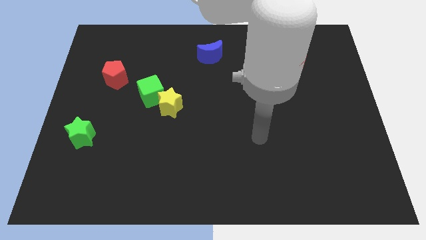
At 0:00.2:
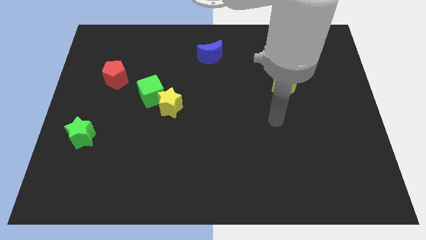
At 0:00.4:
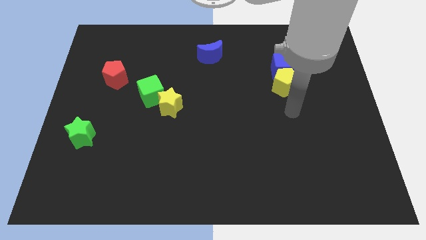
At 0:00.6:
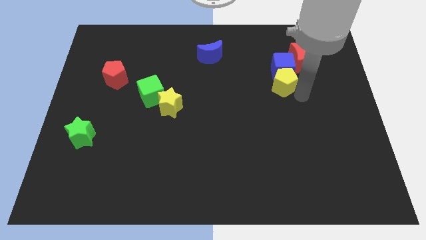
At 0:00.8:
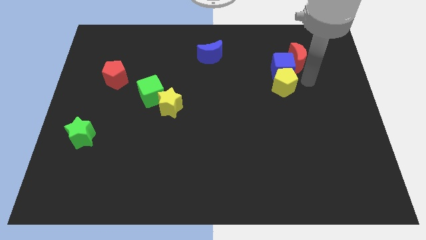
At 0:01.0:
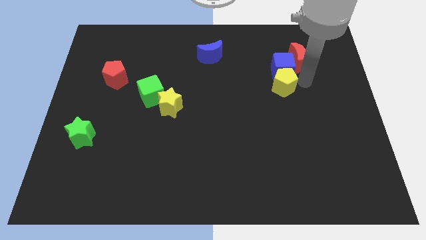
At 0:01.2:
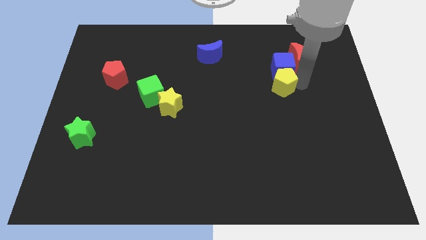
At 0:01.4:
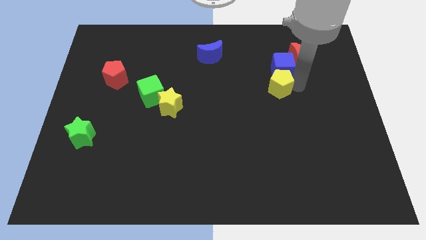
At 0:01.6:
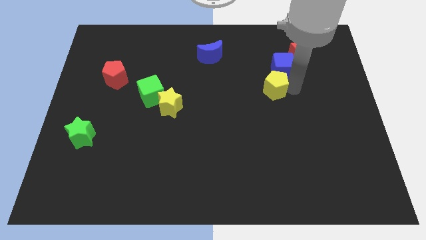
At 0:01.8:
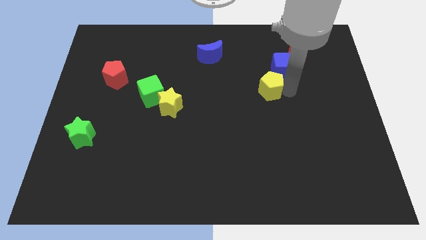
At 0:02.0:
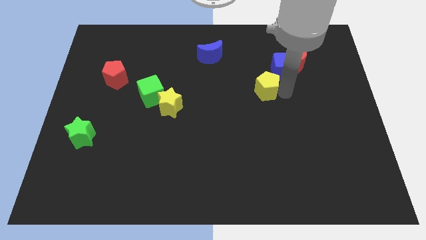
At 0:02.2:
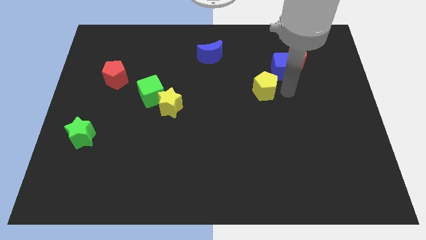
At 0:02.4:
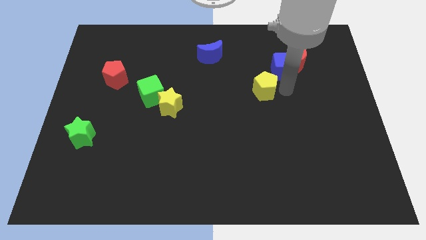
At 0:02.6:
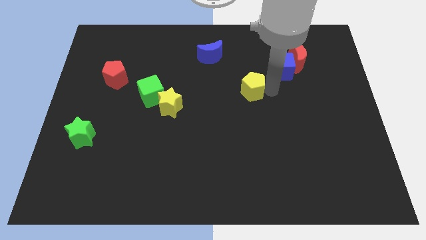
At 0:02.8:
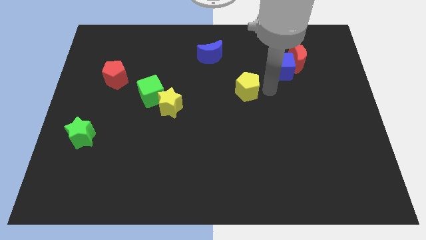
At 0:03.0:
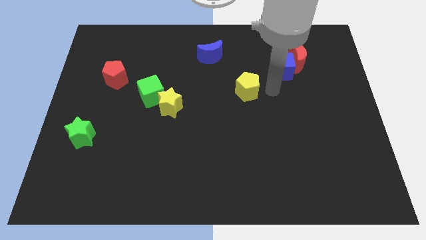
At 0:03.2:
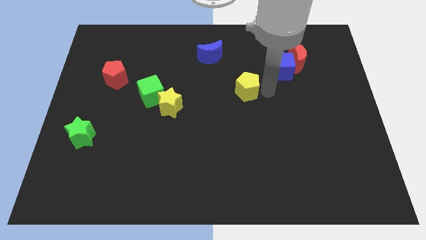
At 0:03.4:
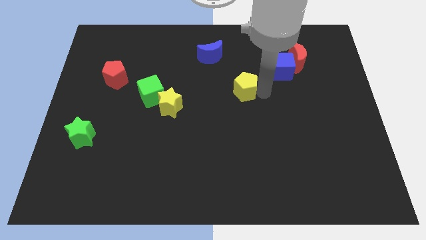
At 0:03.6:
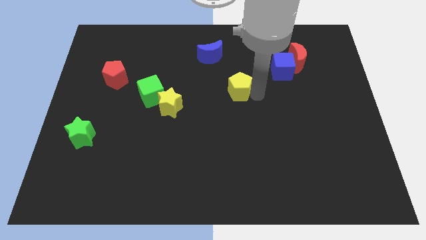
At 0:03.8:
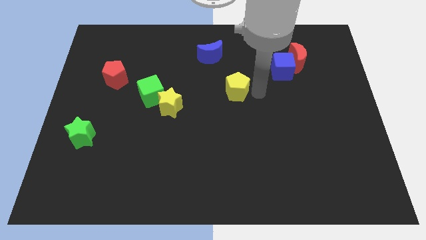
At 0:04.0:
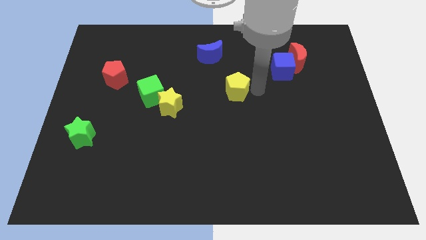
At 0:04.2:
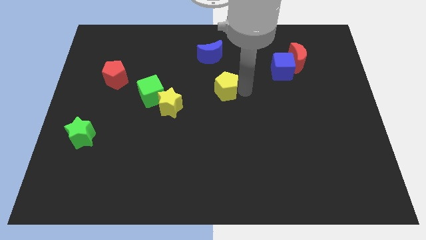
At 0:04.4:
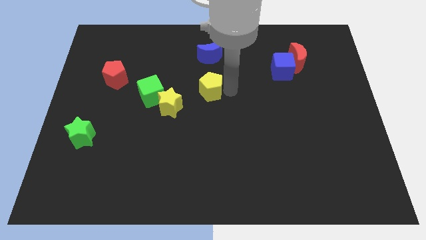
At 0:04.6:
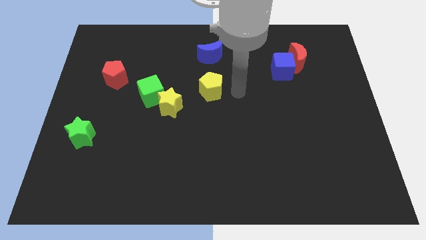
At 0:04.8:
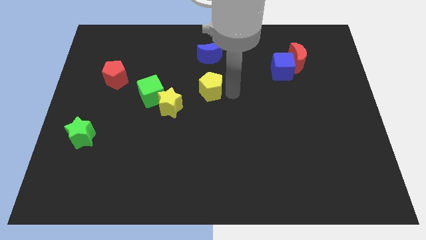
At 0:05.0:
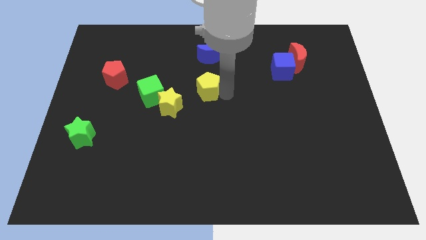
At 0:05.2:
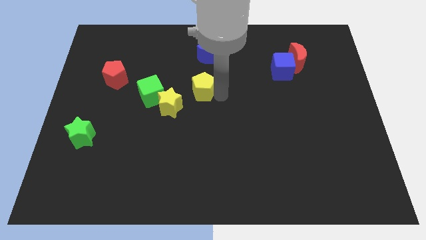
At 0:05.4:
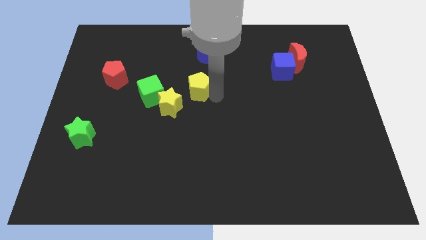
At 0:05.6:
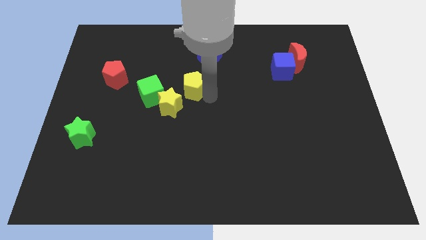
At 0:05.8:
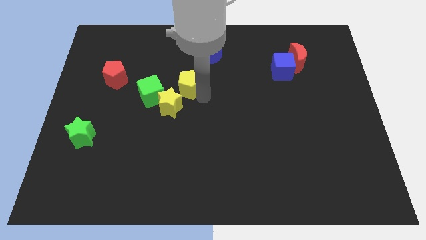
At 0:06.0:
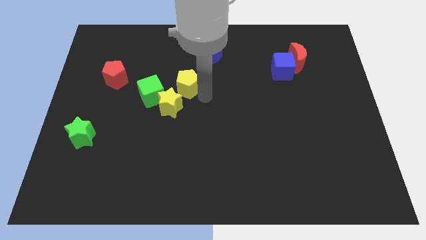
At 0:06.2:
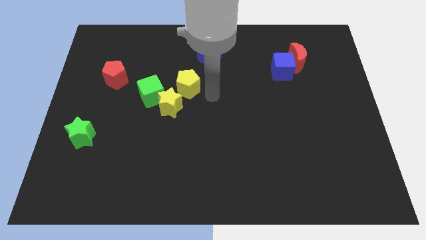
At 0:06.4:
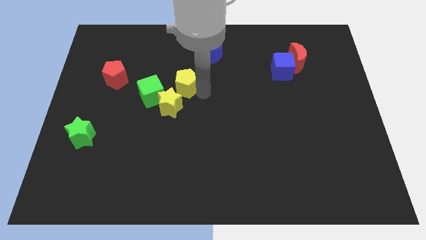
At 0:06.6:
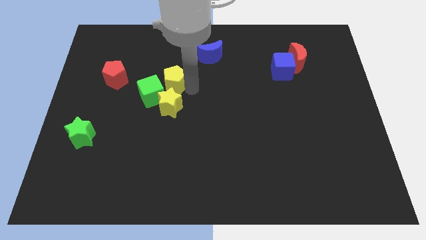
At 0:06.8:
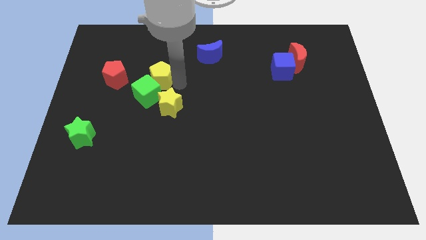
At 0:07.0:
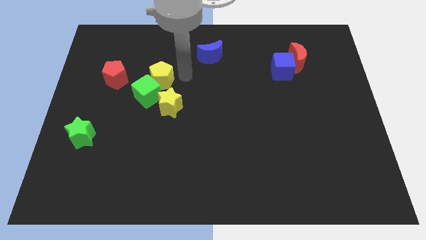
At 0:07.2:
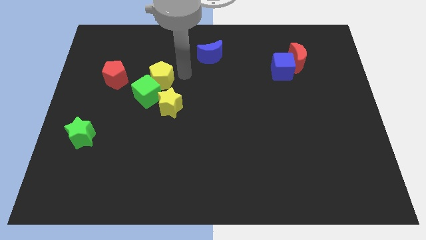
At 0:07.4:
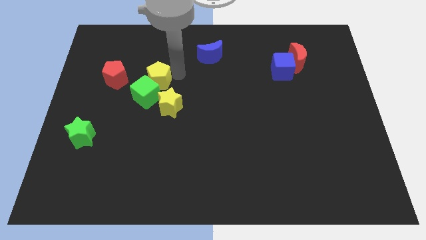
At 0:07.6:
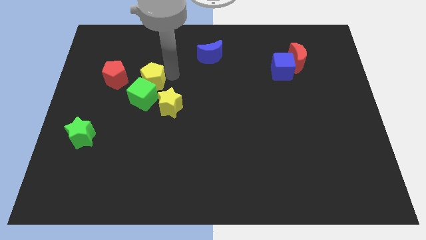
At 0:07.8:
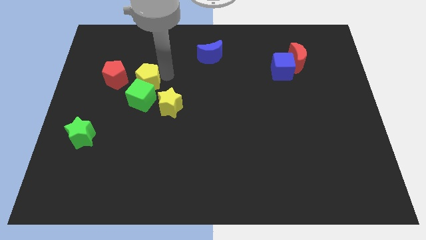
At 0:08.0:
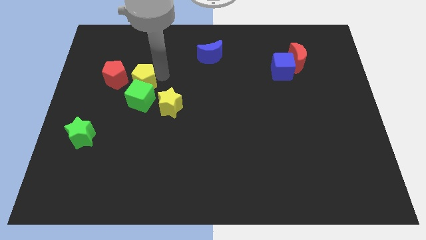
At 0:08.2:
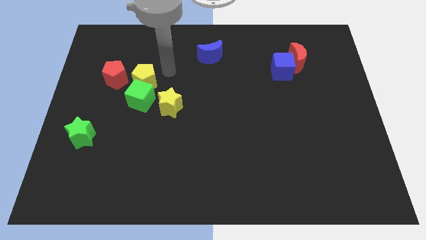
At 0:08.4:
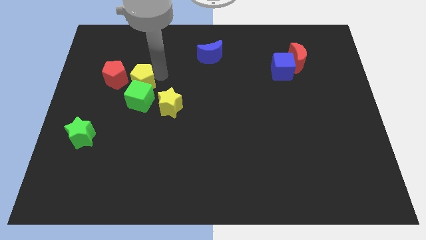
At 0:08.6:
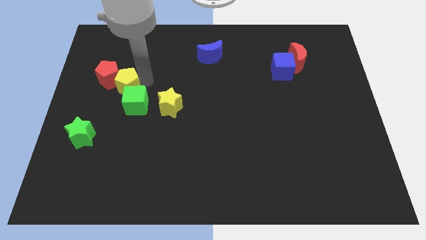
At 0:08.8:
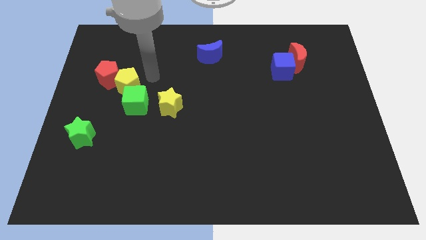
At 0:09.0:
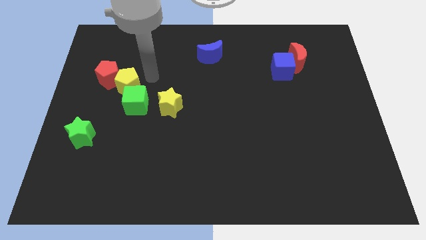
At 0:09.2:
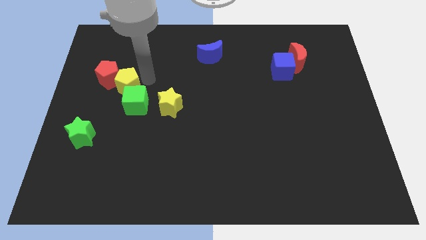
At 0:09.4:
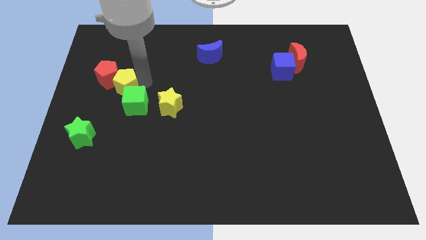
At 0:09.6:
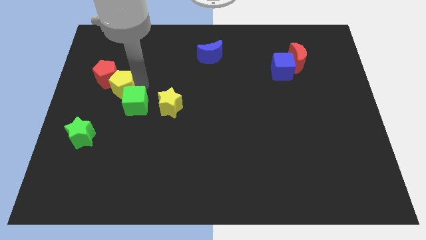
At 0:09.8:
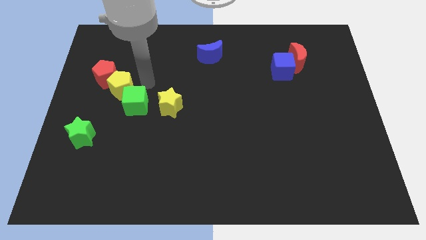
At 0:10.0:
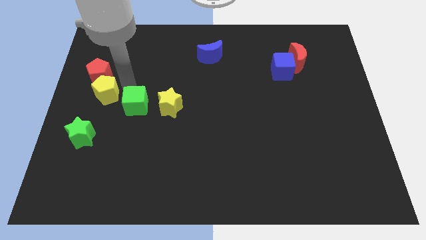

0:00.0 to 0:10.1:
move the yellow pentagon to the left side

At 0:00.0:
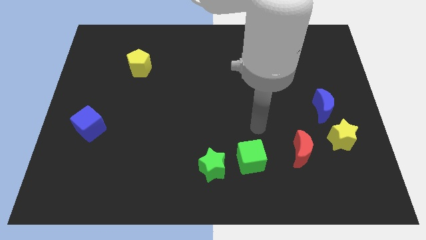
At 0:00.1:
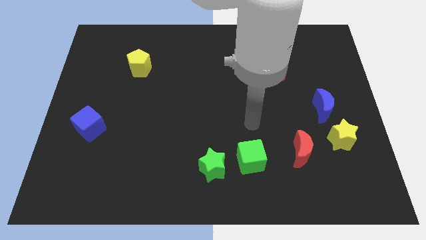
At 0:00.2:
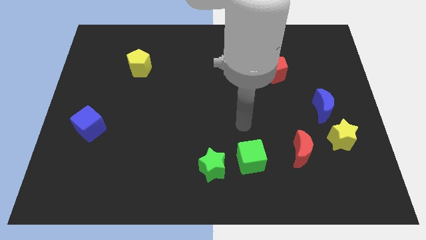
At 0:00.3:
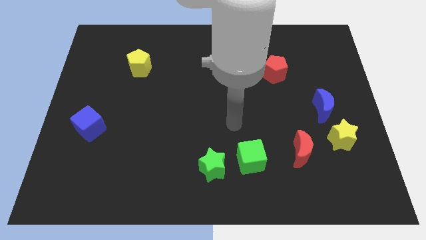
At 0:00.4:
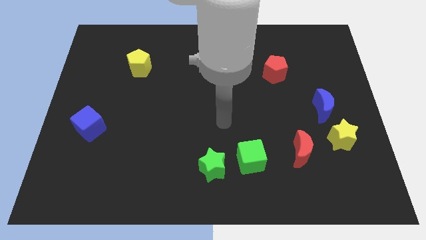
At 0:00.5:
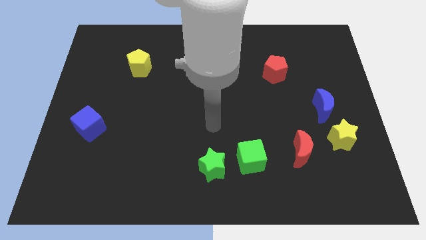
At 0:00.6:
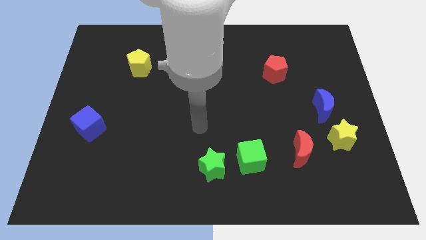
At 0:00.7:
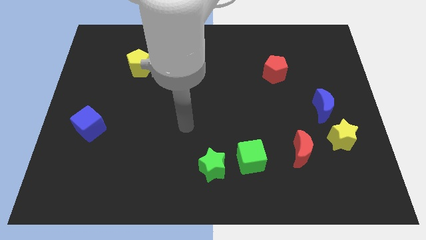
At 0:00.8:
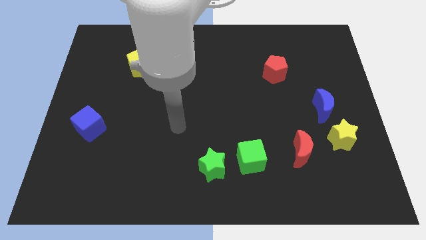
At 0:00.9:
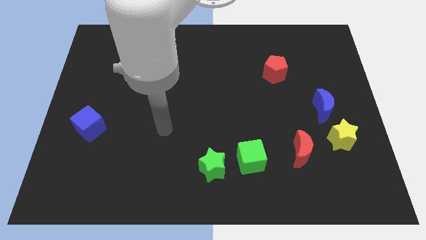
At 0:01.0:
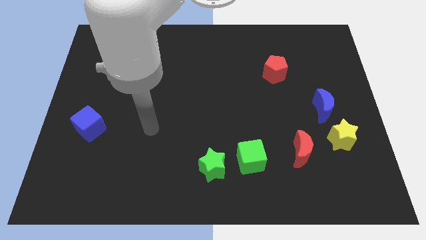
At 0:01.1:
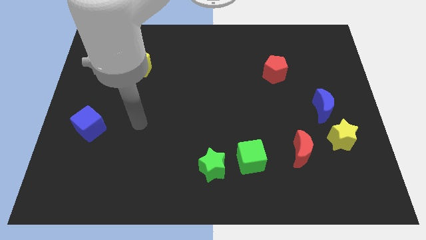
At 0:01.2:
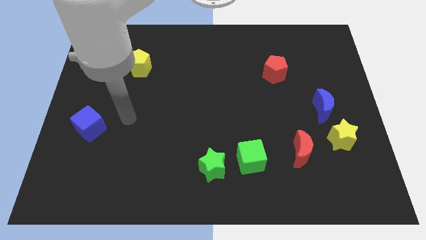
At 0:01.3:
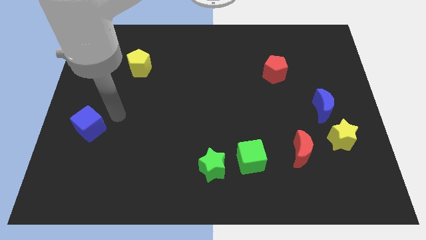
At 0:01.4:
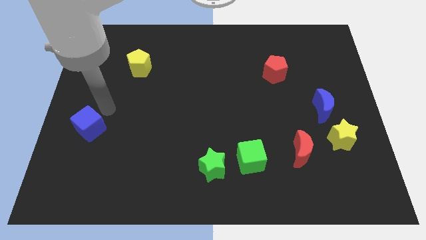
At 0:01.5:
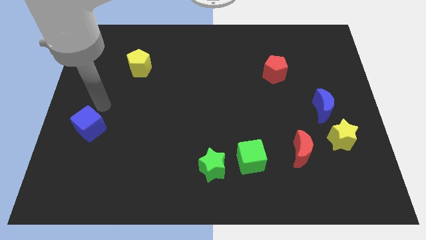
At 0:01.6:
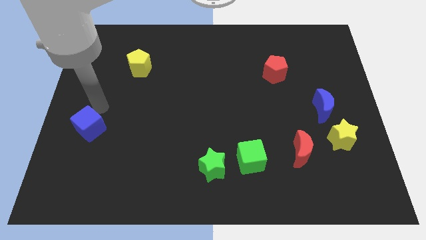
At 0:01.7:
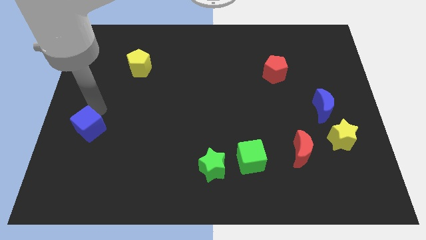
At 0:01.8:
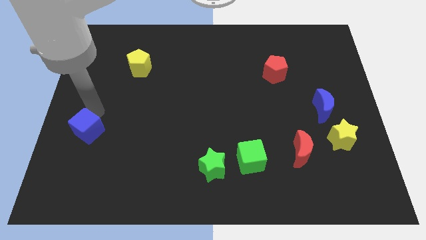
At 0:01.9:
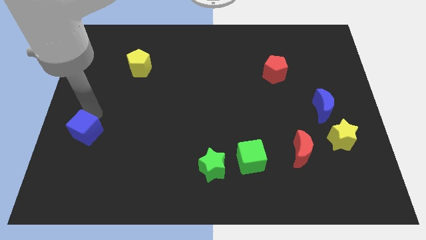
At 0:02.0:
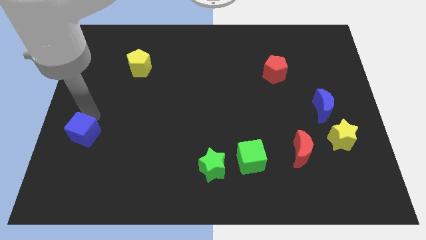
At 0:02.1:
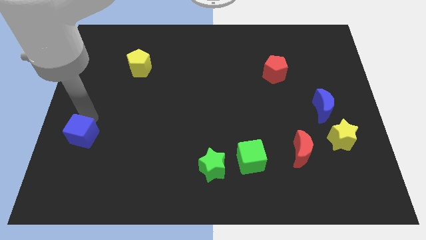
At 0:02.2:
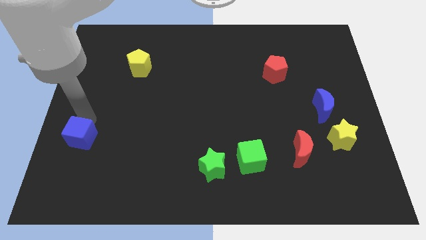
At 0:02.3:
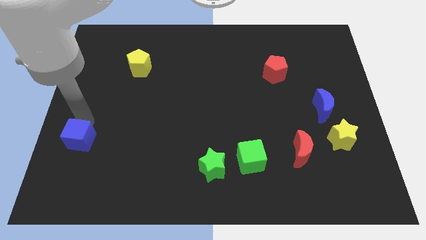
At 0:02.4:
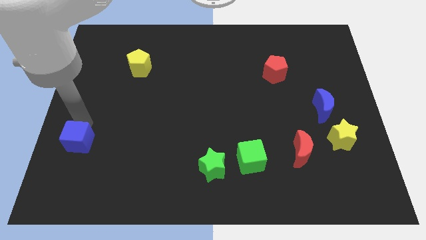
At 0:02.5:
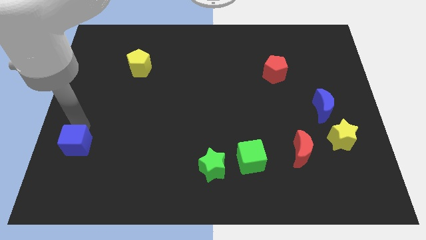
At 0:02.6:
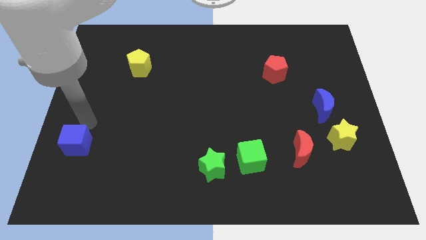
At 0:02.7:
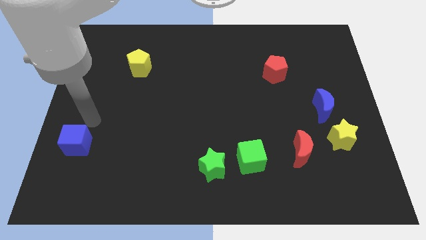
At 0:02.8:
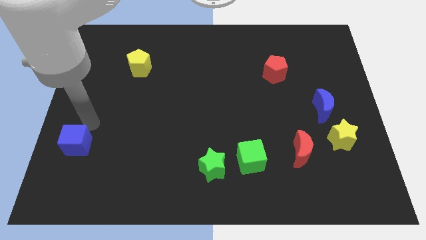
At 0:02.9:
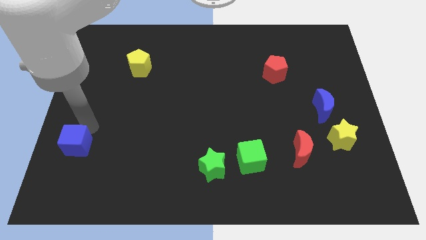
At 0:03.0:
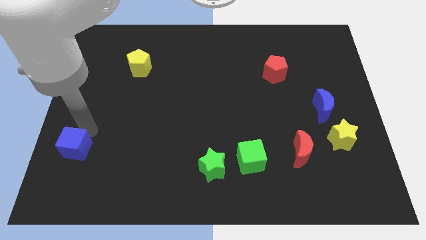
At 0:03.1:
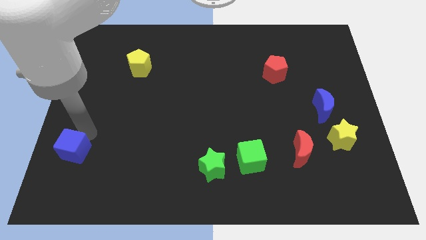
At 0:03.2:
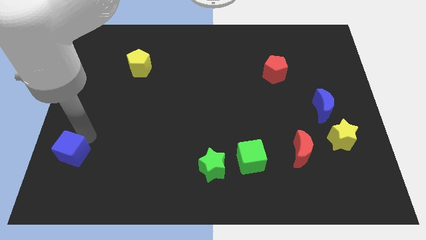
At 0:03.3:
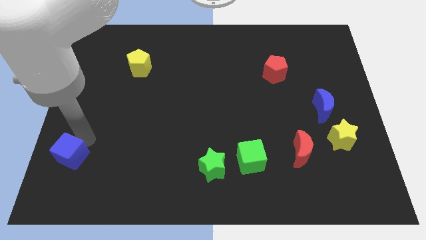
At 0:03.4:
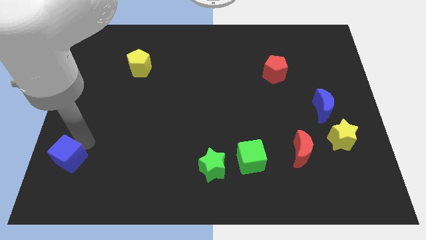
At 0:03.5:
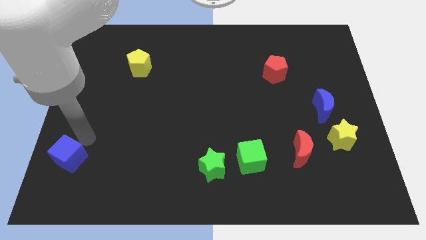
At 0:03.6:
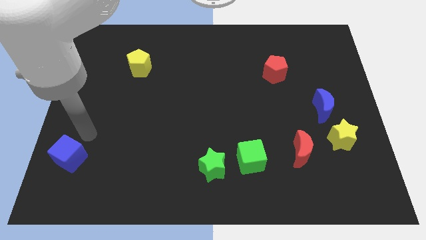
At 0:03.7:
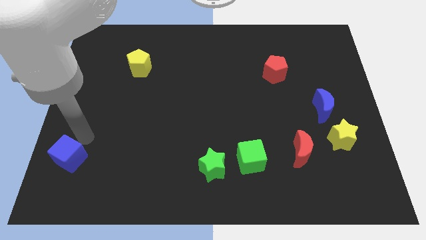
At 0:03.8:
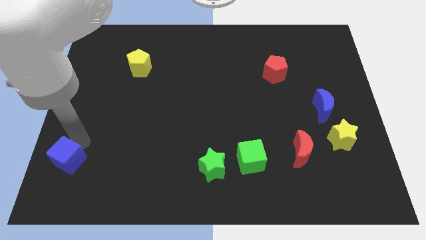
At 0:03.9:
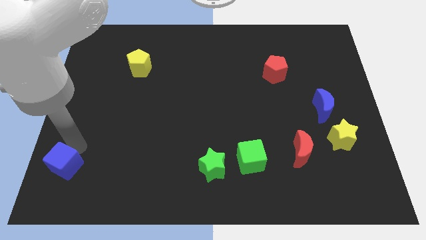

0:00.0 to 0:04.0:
put the blue cube to the bottom left
